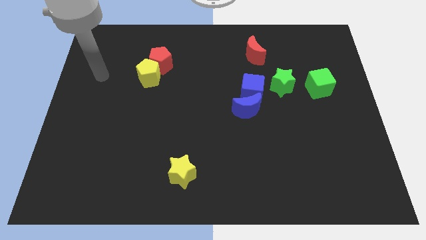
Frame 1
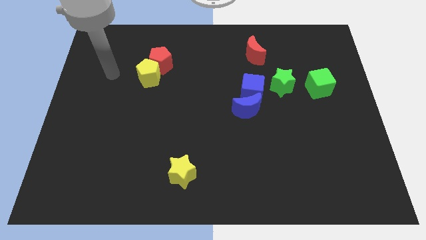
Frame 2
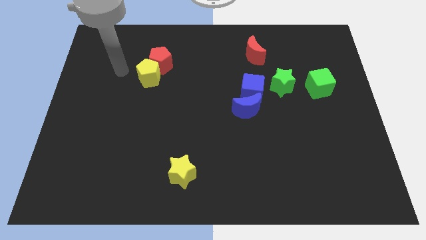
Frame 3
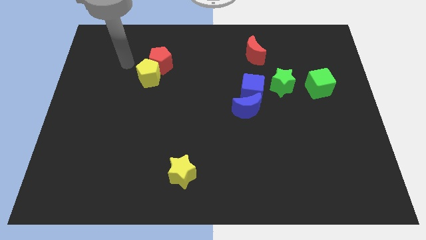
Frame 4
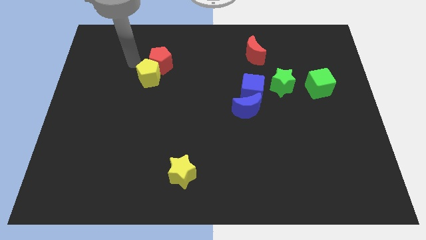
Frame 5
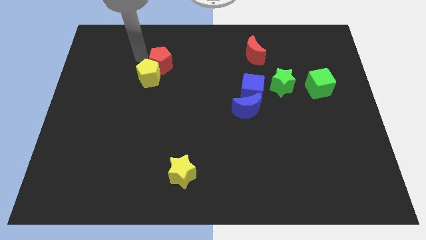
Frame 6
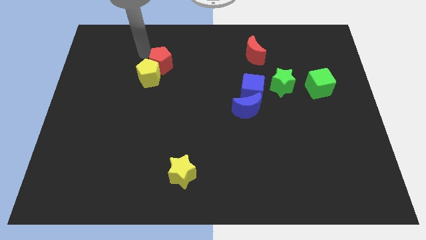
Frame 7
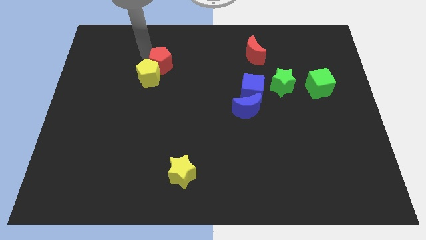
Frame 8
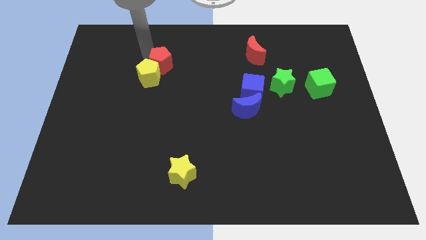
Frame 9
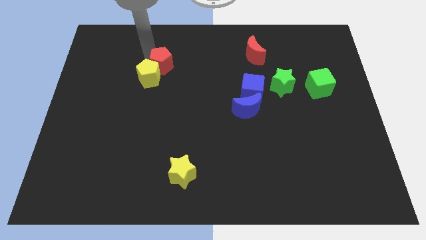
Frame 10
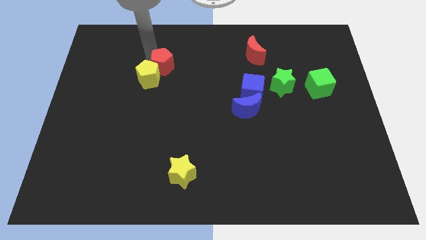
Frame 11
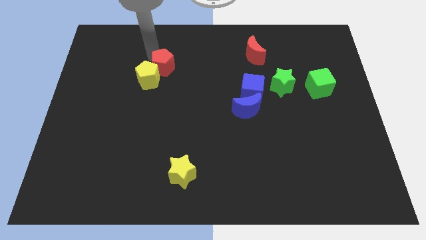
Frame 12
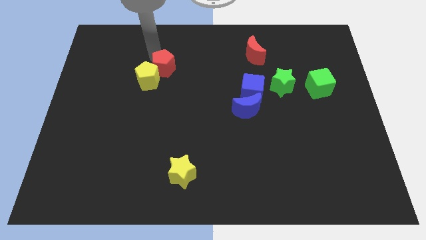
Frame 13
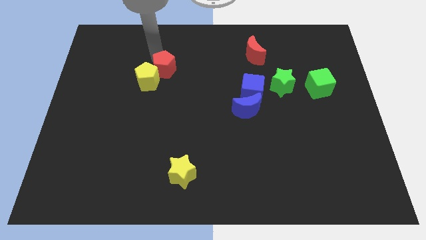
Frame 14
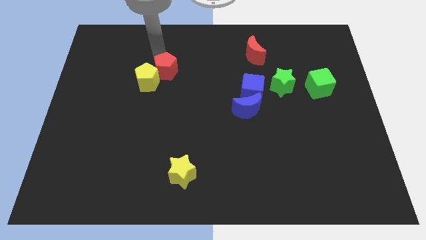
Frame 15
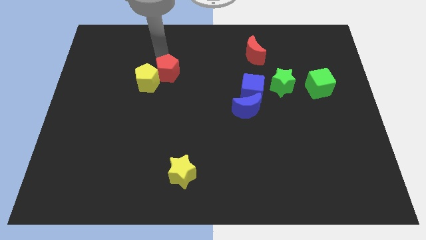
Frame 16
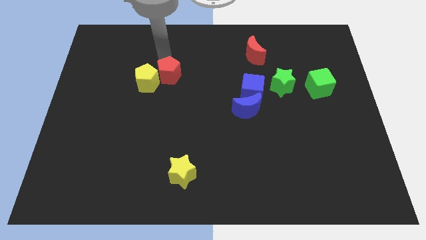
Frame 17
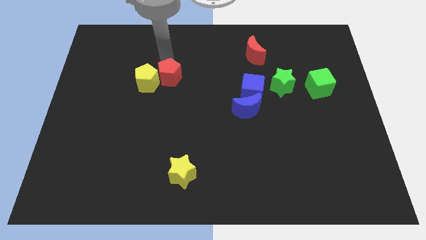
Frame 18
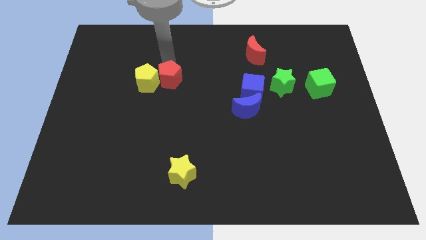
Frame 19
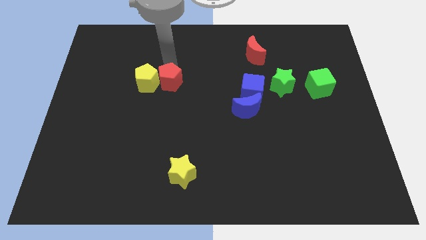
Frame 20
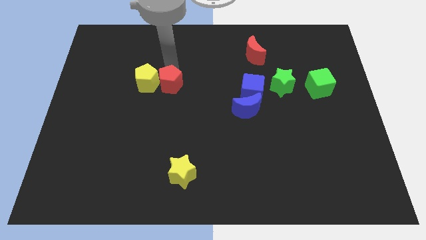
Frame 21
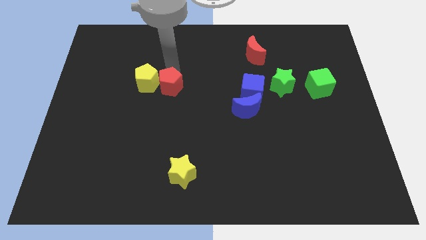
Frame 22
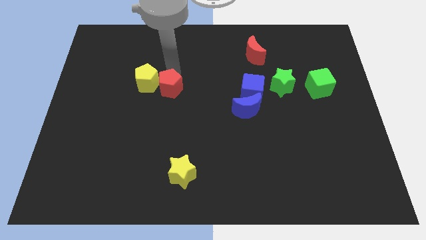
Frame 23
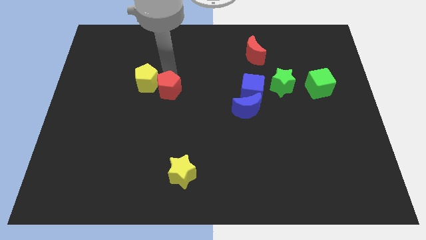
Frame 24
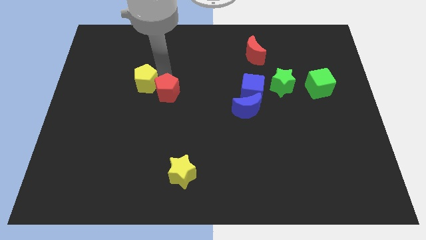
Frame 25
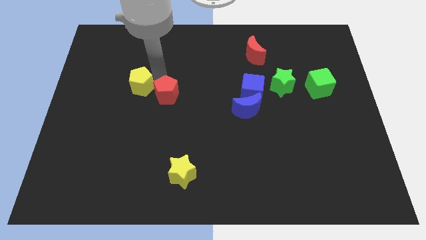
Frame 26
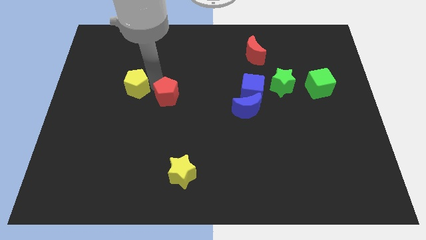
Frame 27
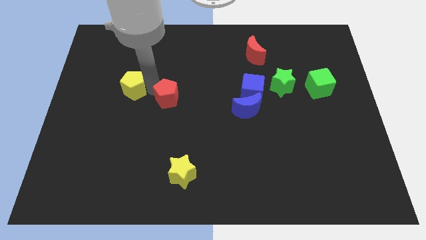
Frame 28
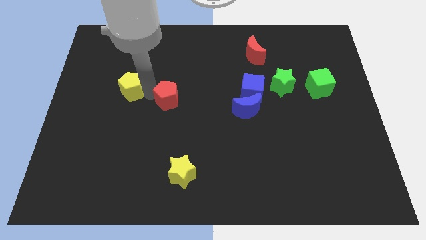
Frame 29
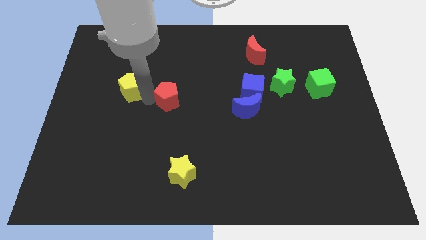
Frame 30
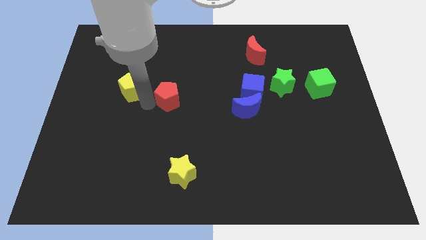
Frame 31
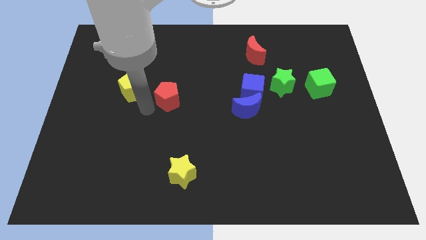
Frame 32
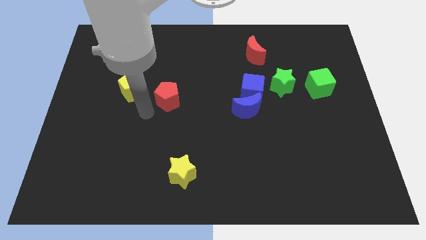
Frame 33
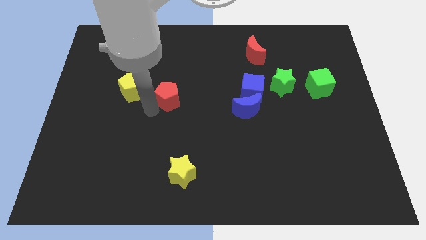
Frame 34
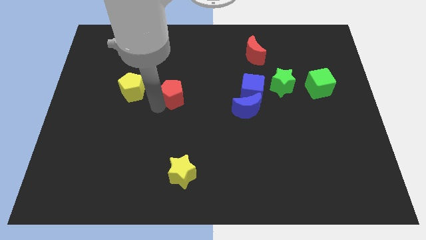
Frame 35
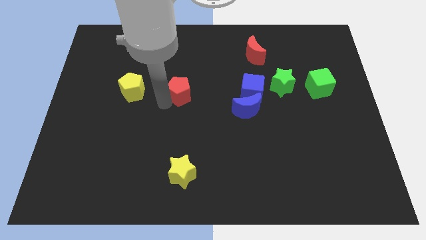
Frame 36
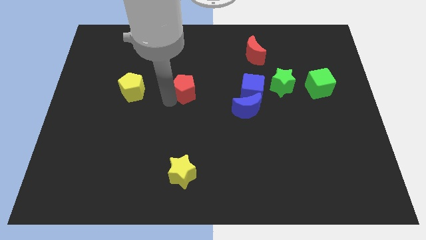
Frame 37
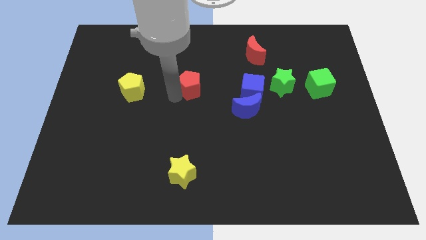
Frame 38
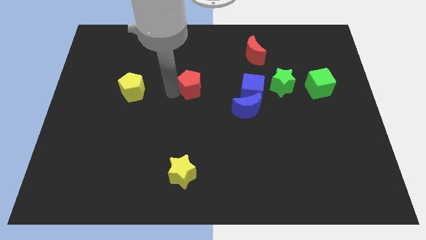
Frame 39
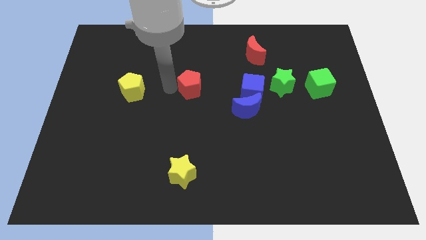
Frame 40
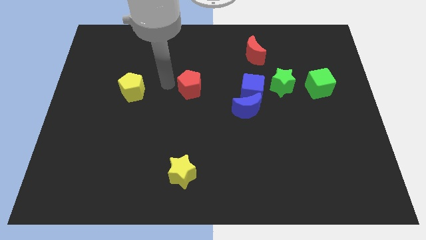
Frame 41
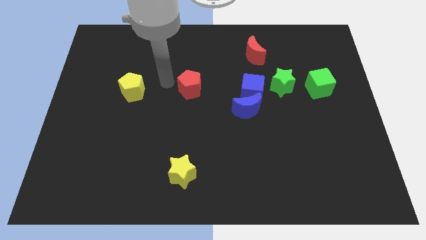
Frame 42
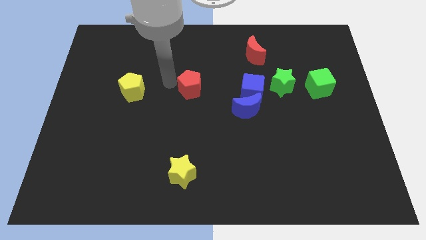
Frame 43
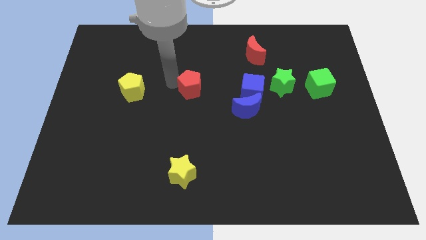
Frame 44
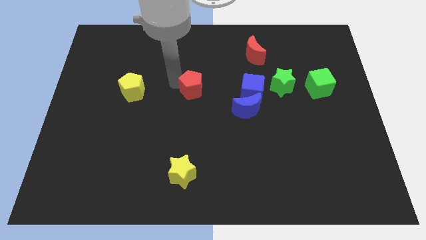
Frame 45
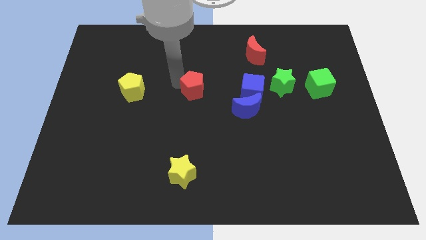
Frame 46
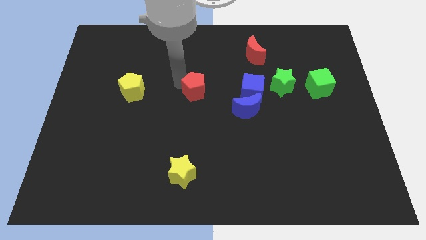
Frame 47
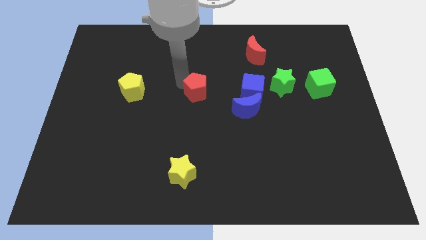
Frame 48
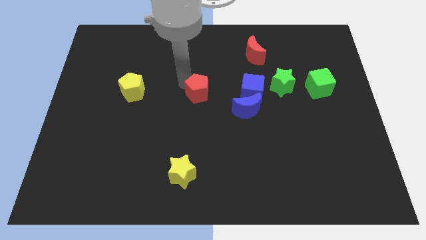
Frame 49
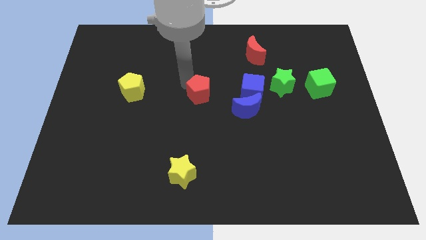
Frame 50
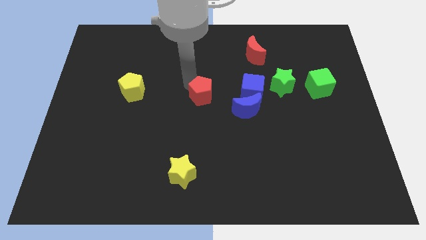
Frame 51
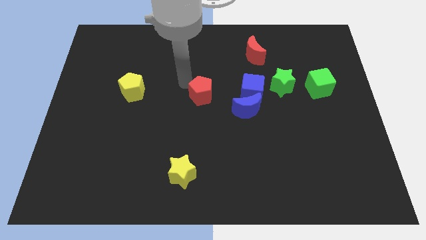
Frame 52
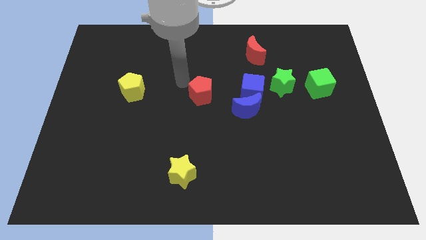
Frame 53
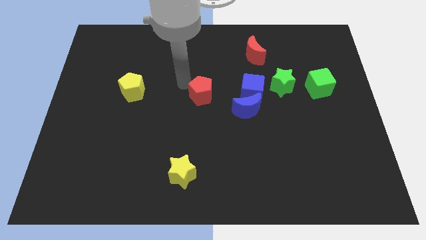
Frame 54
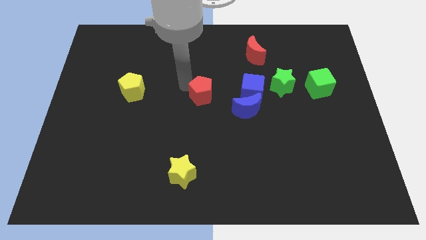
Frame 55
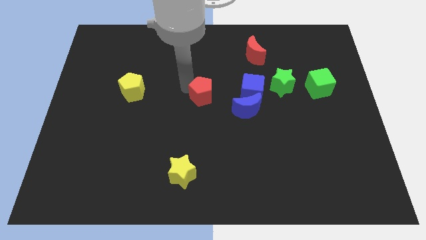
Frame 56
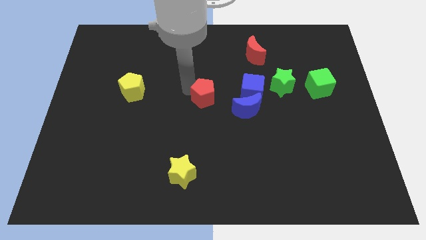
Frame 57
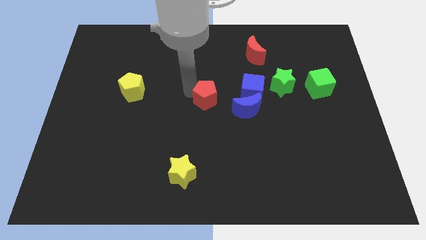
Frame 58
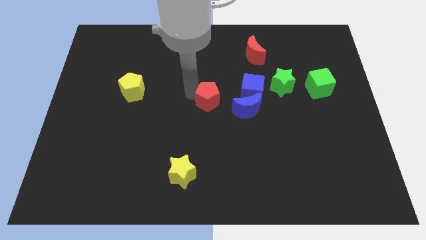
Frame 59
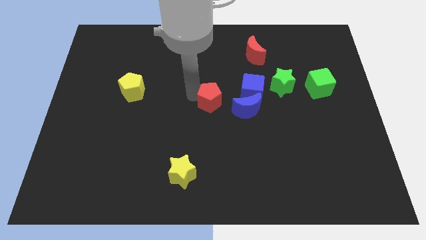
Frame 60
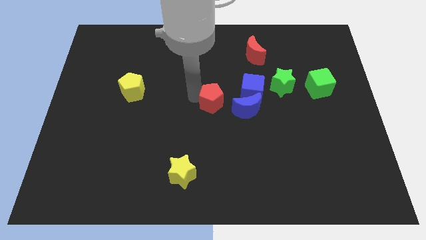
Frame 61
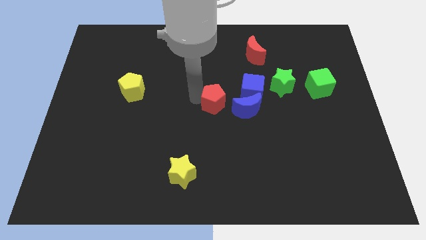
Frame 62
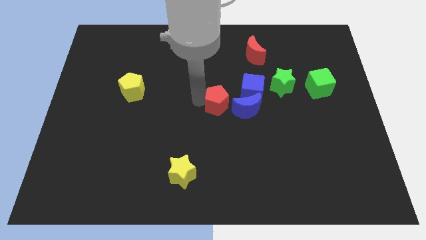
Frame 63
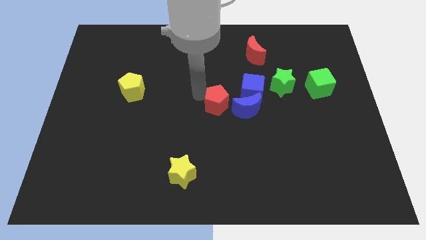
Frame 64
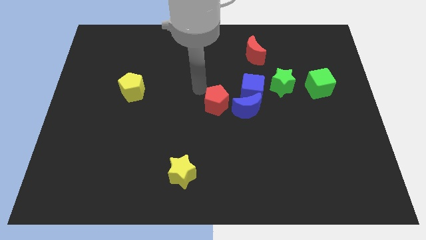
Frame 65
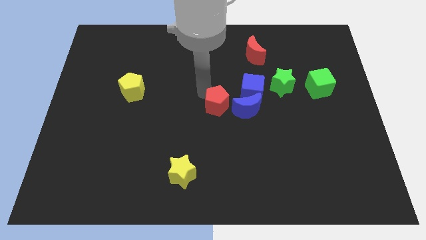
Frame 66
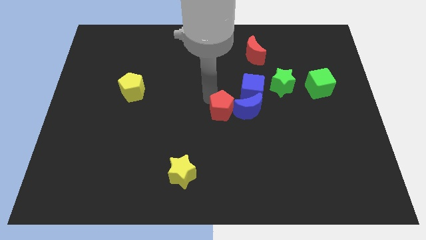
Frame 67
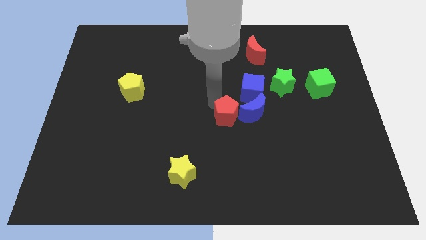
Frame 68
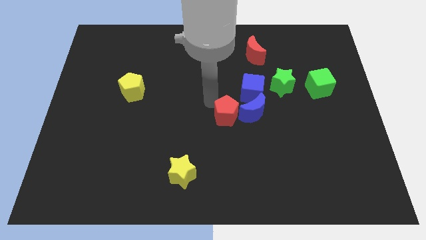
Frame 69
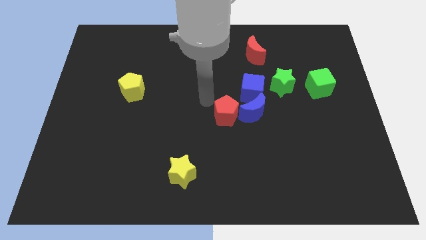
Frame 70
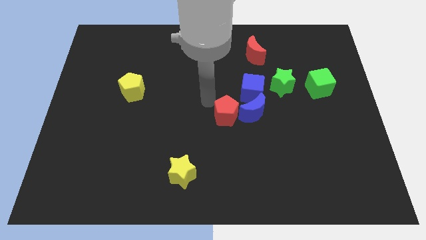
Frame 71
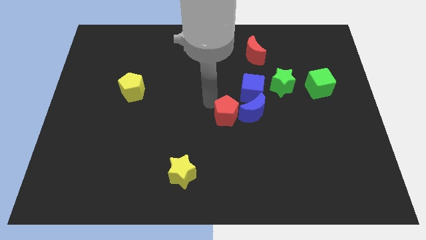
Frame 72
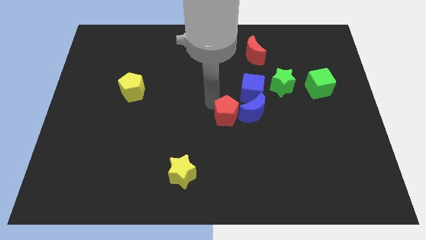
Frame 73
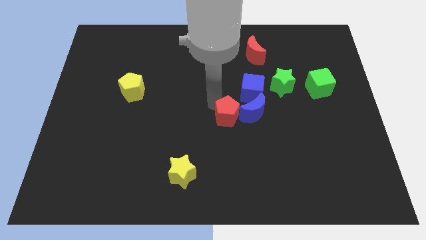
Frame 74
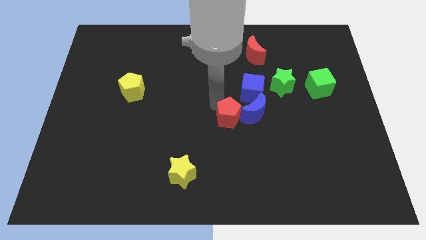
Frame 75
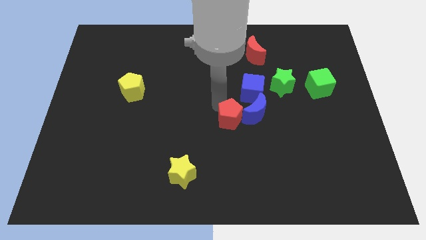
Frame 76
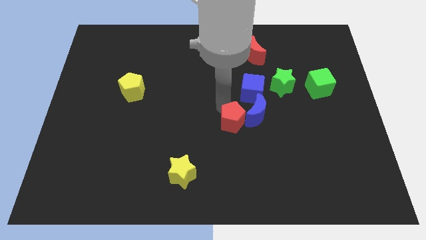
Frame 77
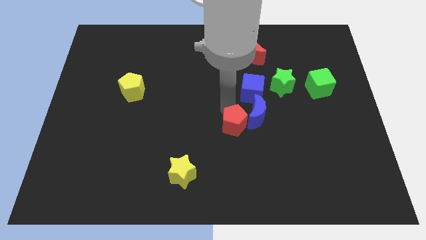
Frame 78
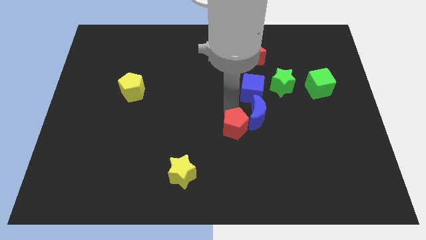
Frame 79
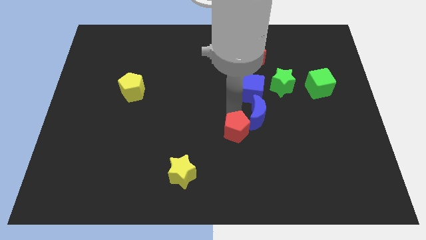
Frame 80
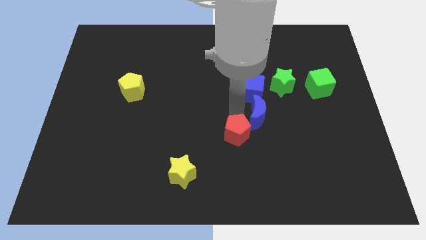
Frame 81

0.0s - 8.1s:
slide the red pentagon to the bottom of the blue moon
